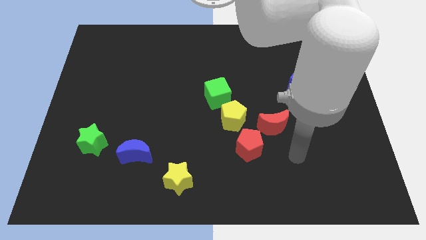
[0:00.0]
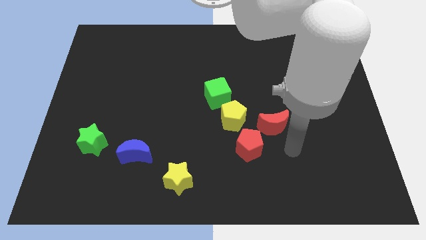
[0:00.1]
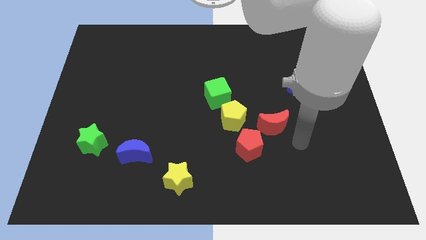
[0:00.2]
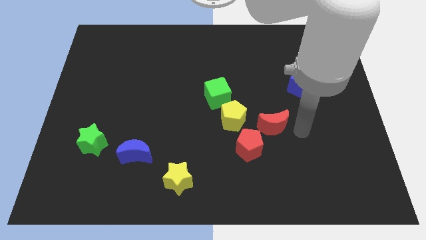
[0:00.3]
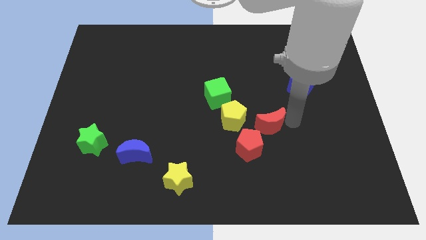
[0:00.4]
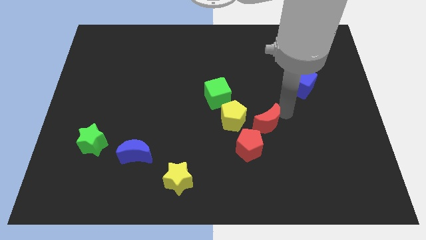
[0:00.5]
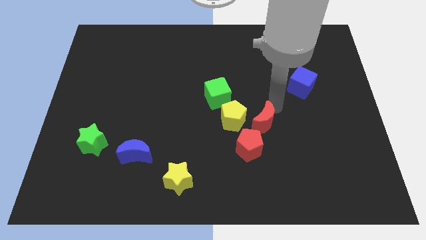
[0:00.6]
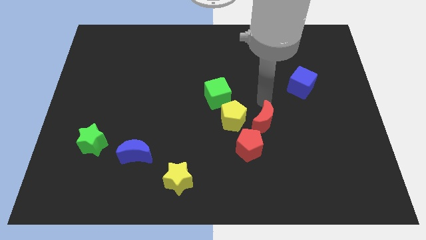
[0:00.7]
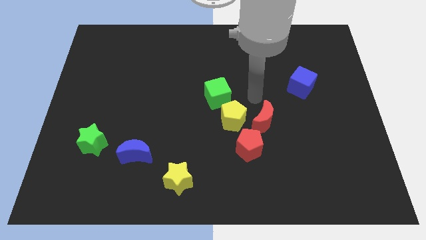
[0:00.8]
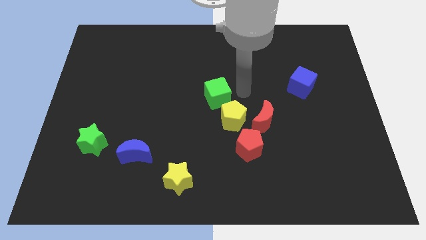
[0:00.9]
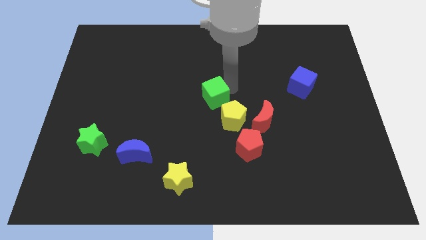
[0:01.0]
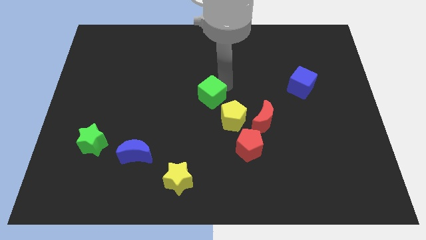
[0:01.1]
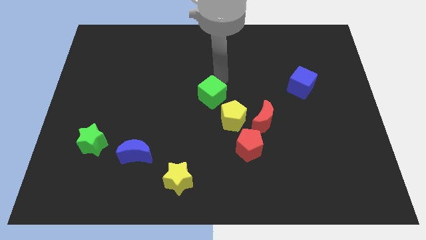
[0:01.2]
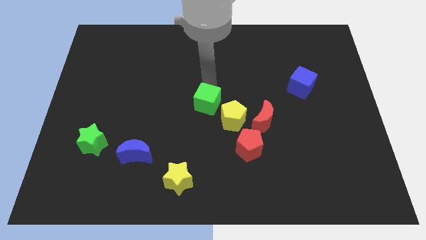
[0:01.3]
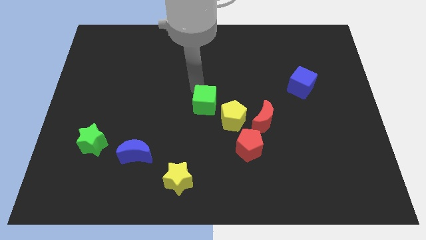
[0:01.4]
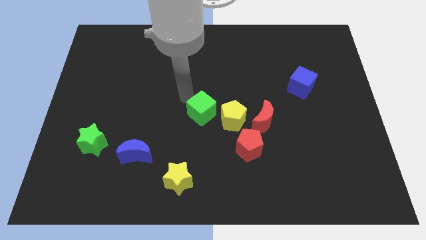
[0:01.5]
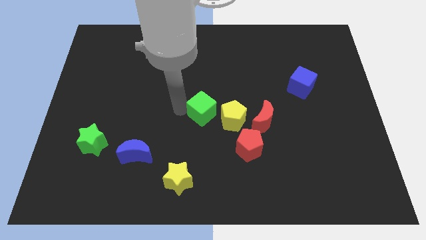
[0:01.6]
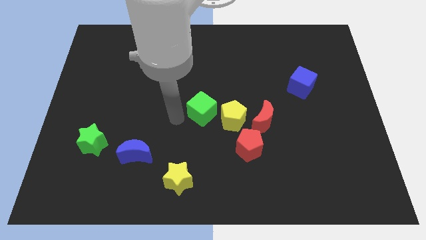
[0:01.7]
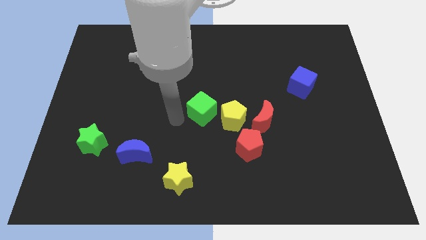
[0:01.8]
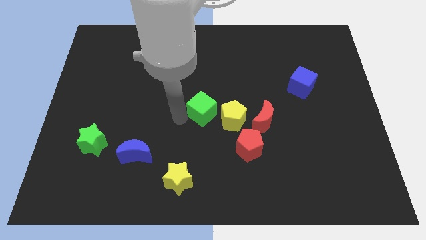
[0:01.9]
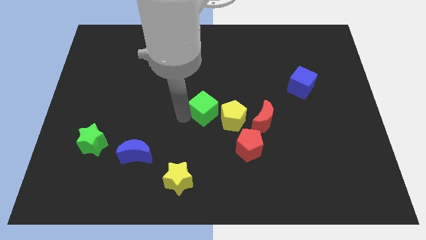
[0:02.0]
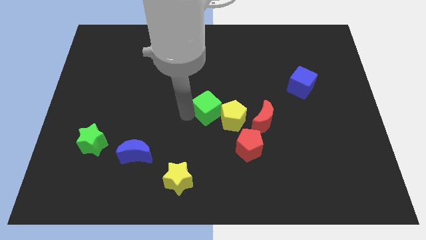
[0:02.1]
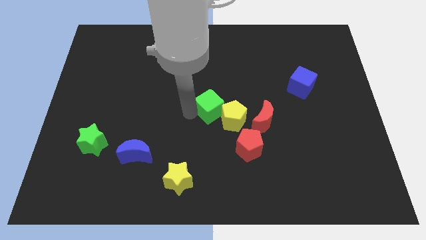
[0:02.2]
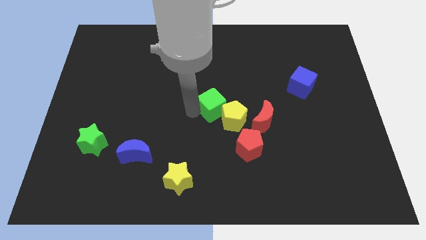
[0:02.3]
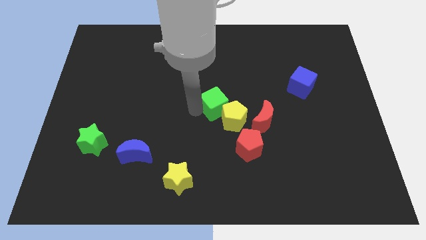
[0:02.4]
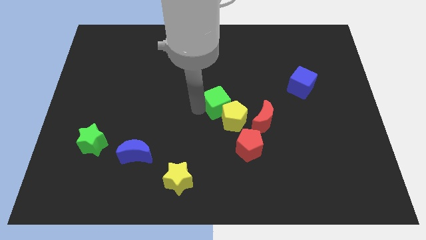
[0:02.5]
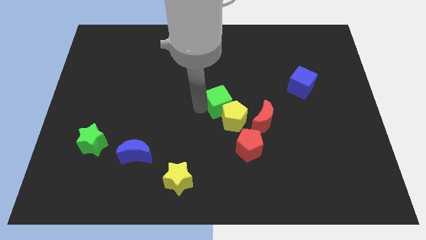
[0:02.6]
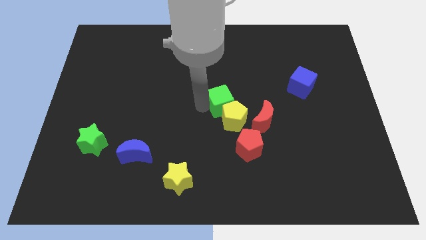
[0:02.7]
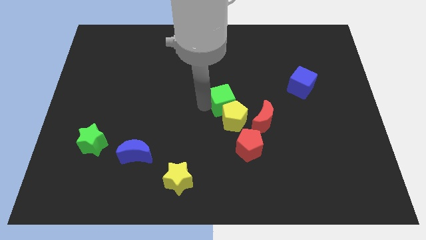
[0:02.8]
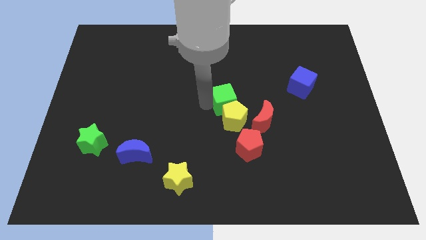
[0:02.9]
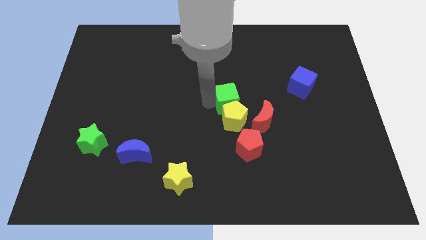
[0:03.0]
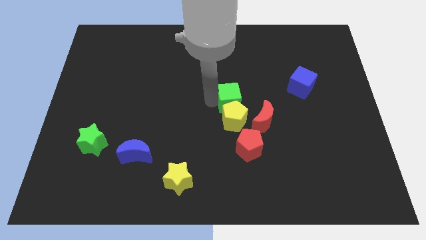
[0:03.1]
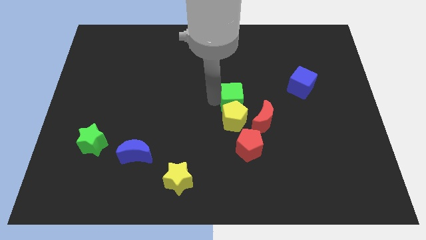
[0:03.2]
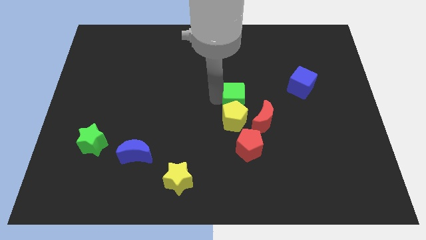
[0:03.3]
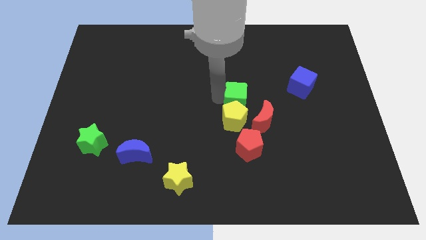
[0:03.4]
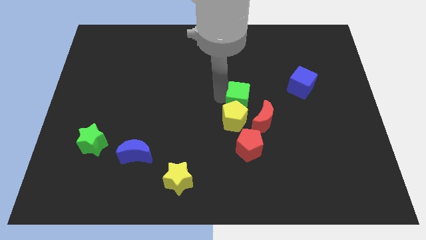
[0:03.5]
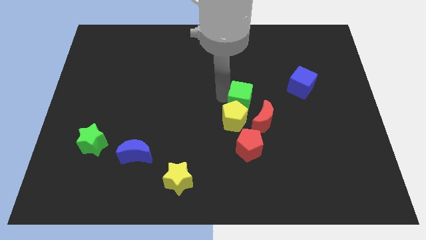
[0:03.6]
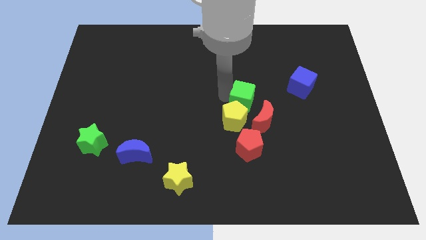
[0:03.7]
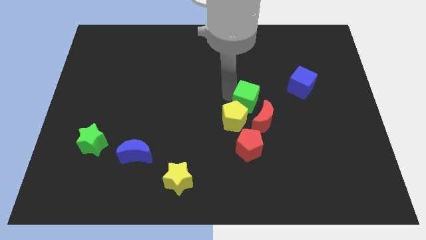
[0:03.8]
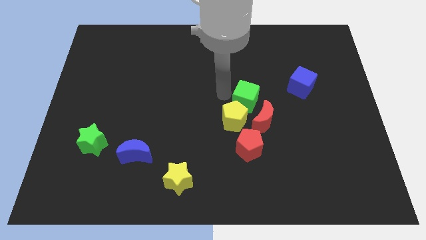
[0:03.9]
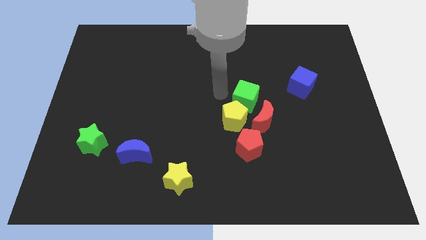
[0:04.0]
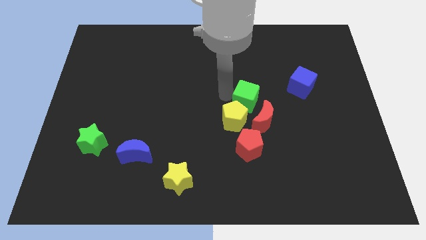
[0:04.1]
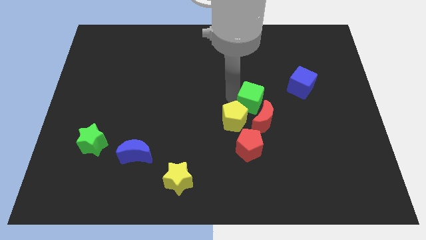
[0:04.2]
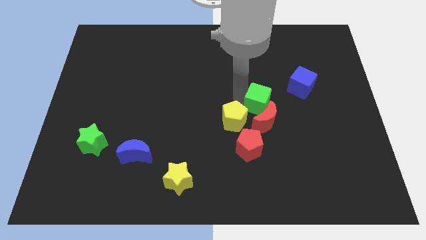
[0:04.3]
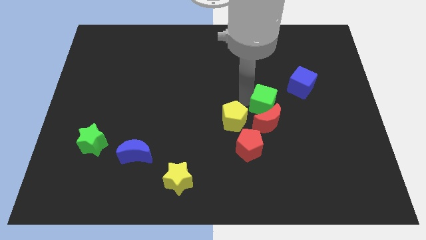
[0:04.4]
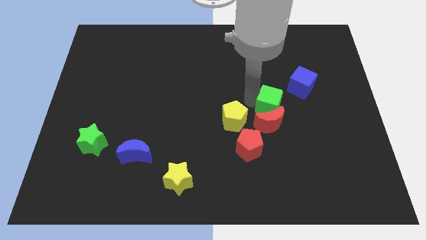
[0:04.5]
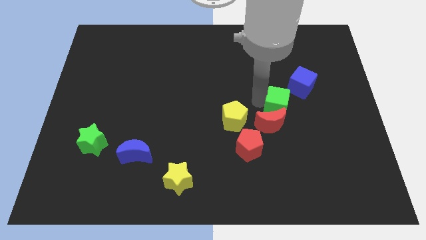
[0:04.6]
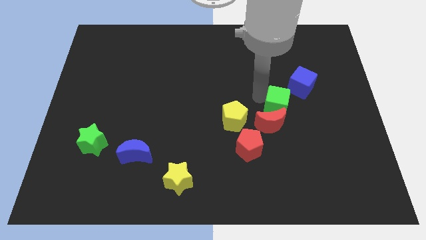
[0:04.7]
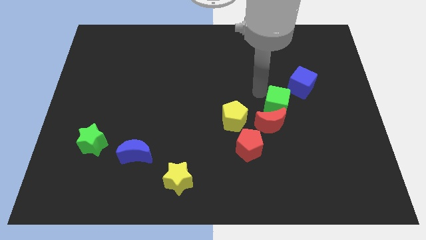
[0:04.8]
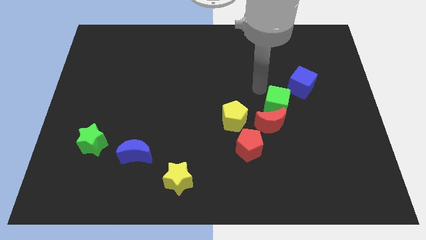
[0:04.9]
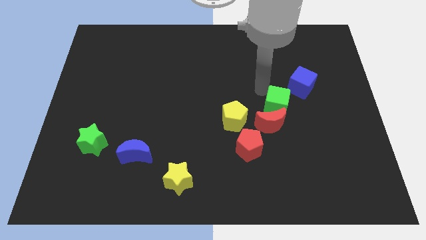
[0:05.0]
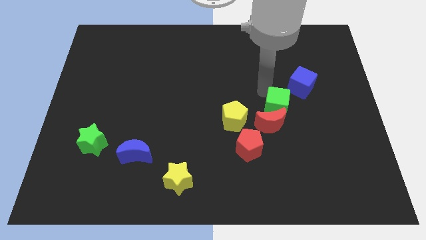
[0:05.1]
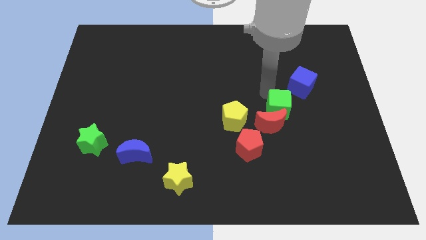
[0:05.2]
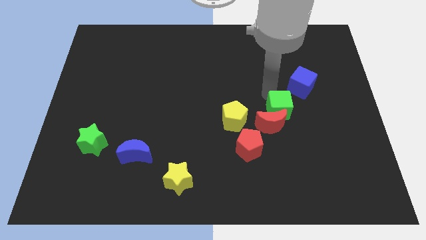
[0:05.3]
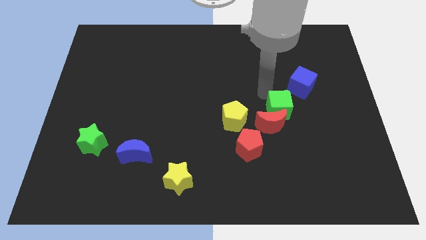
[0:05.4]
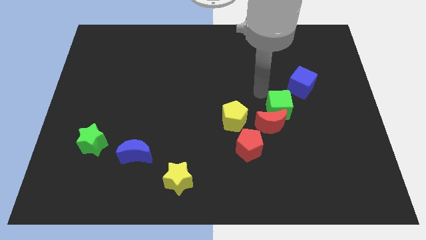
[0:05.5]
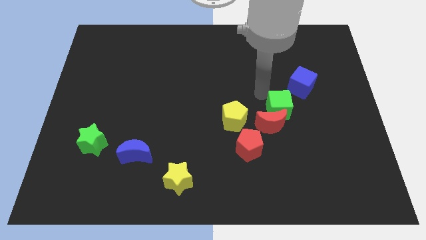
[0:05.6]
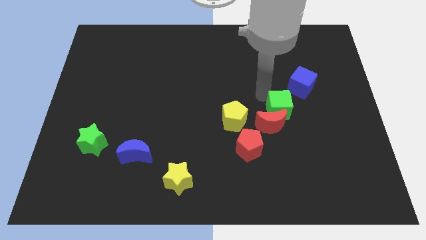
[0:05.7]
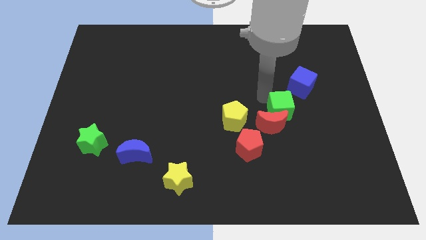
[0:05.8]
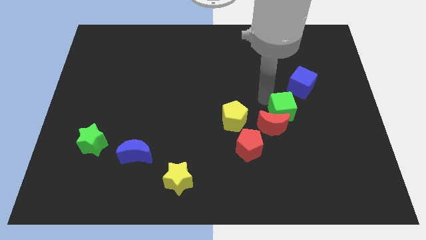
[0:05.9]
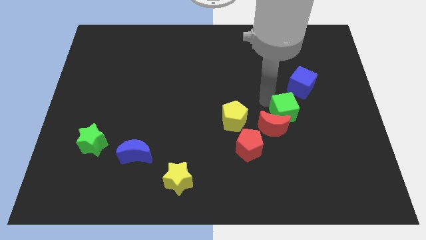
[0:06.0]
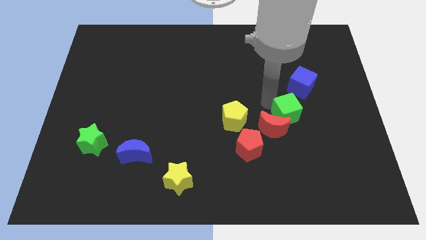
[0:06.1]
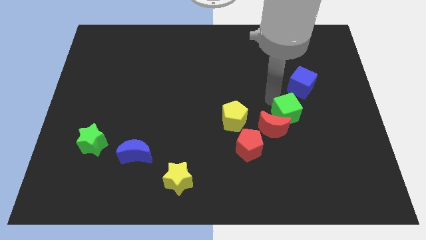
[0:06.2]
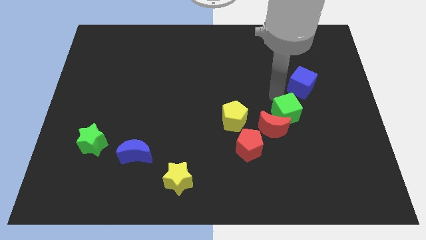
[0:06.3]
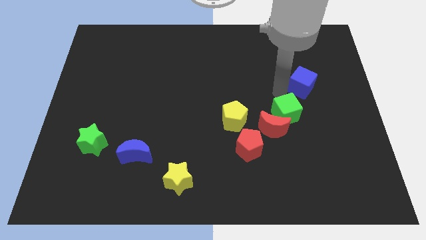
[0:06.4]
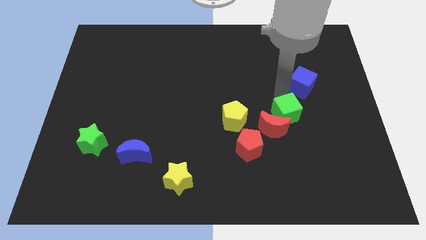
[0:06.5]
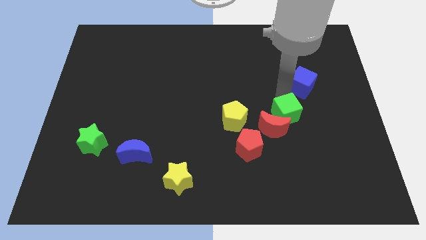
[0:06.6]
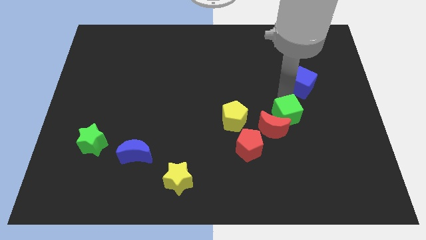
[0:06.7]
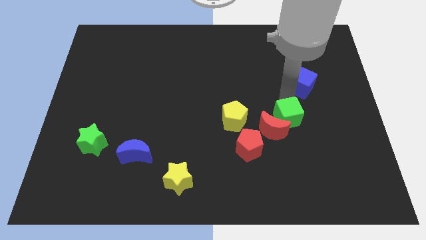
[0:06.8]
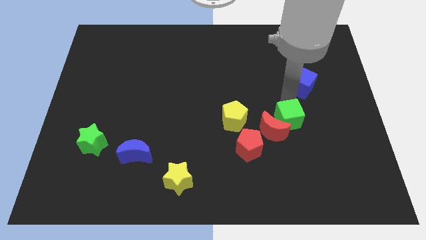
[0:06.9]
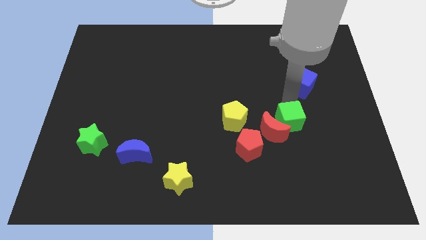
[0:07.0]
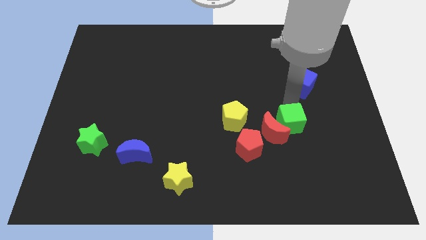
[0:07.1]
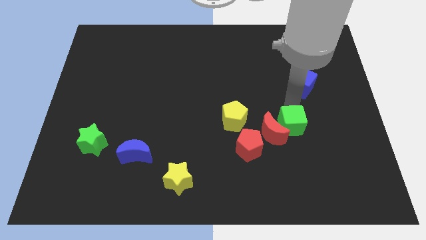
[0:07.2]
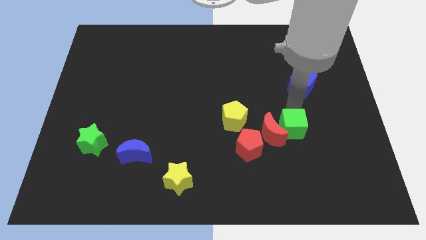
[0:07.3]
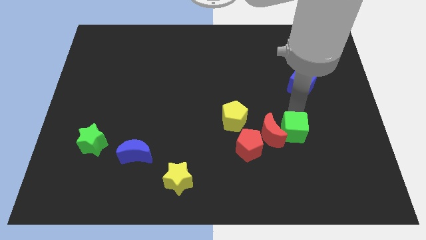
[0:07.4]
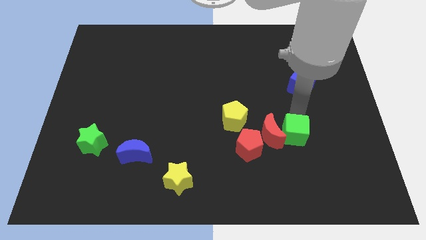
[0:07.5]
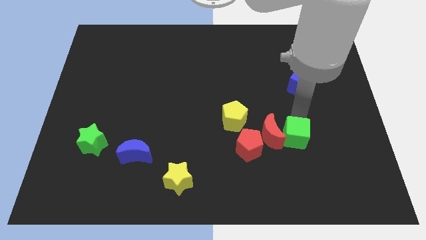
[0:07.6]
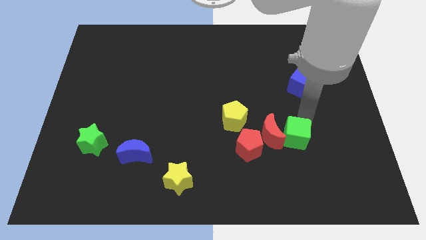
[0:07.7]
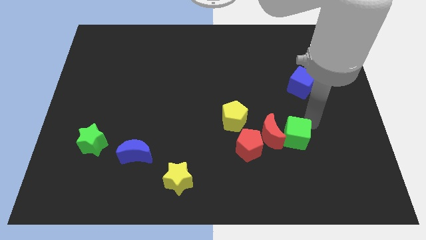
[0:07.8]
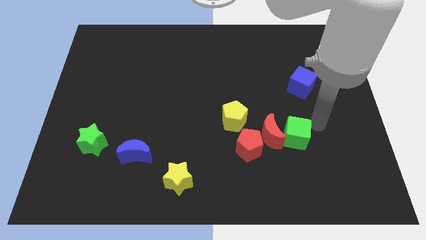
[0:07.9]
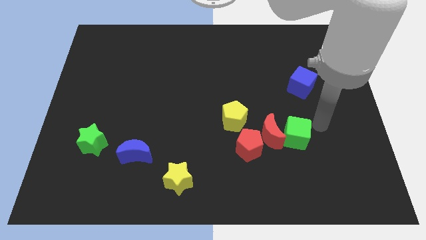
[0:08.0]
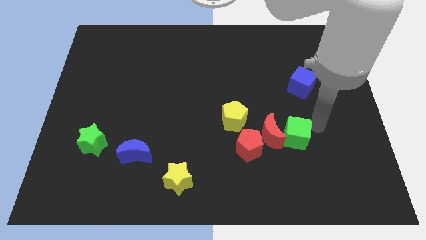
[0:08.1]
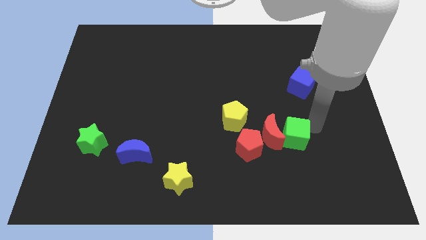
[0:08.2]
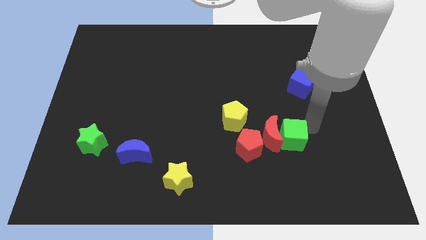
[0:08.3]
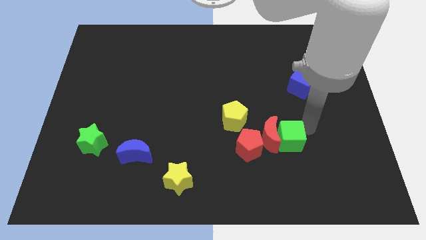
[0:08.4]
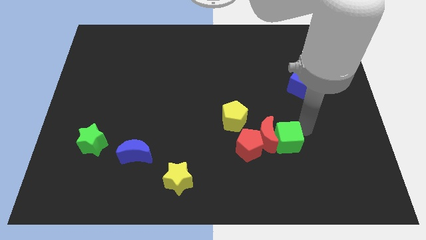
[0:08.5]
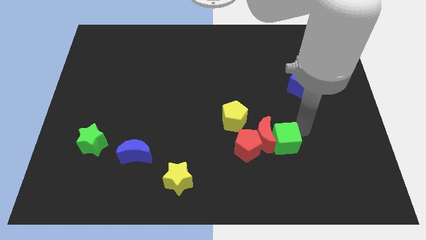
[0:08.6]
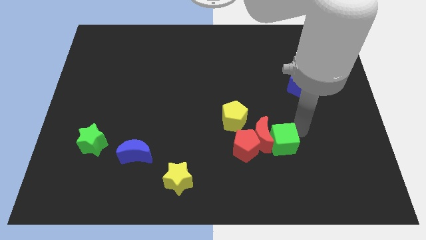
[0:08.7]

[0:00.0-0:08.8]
push the green cube to the bottom right of the yellow pentagon
